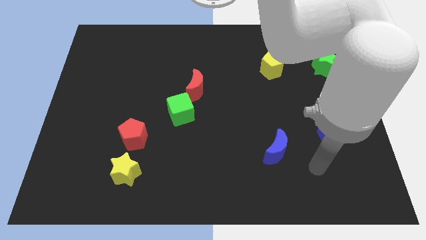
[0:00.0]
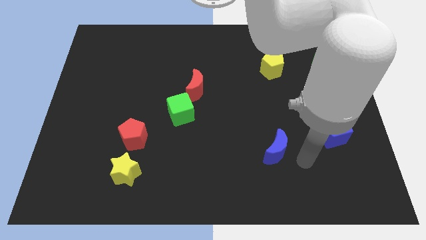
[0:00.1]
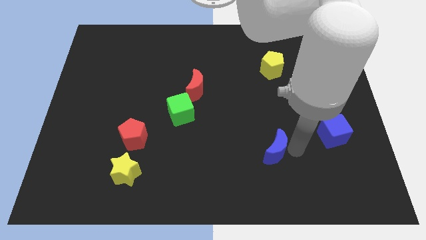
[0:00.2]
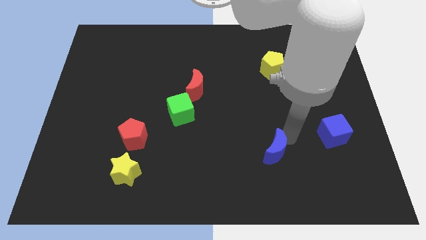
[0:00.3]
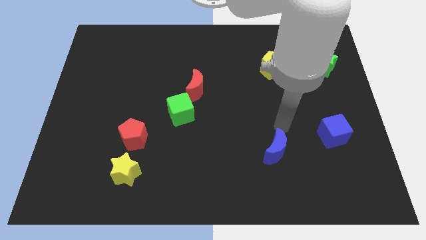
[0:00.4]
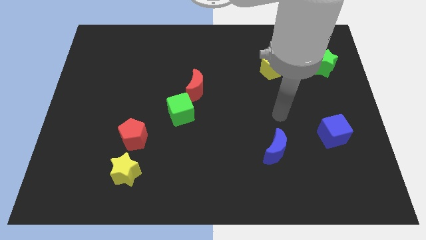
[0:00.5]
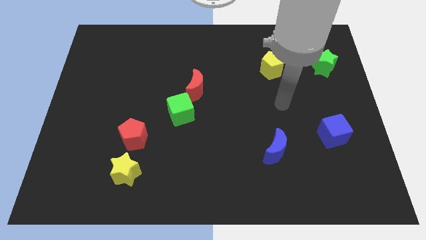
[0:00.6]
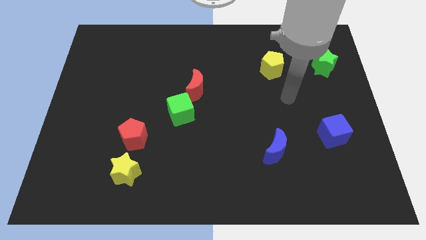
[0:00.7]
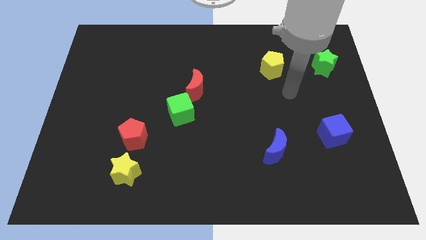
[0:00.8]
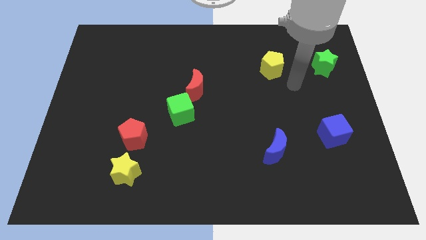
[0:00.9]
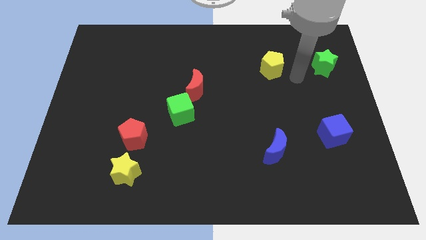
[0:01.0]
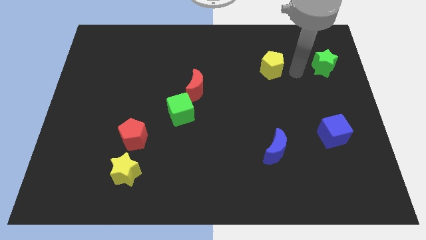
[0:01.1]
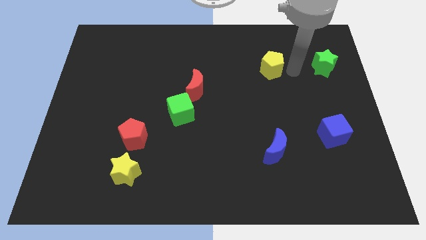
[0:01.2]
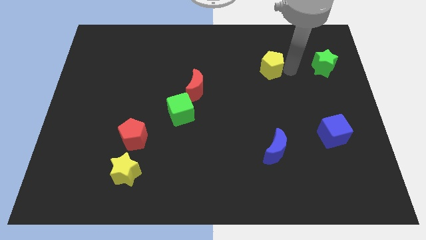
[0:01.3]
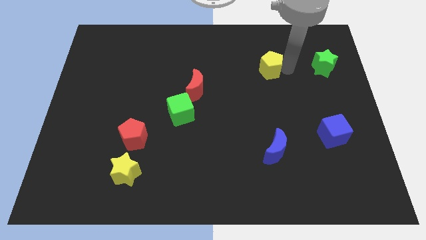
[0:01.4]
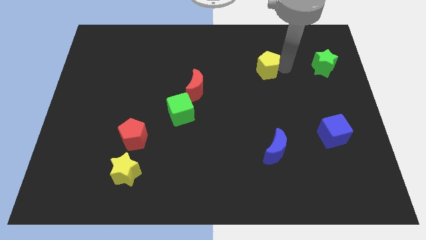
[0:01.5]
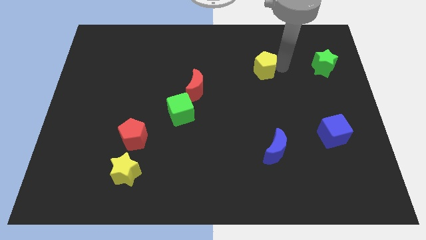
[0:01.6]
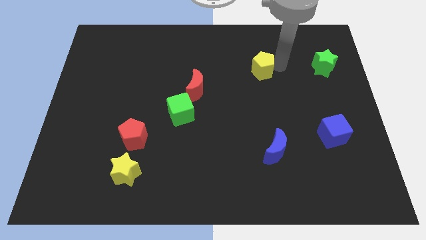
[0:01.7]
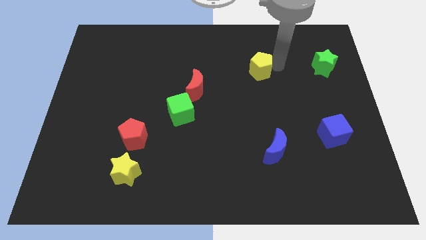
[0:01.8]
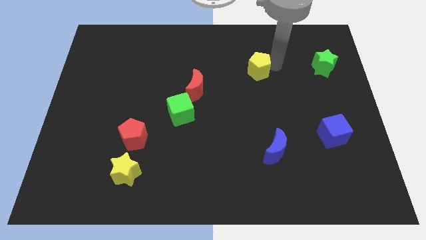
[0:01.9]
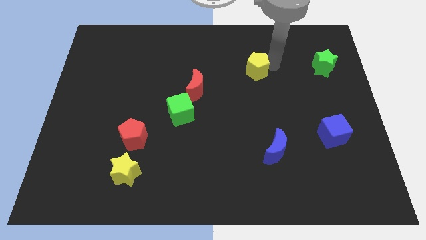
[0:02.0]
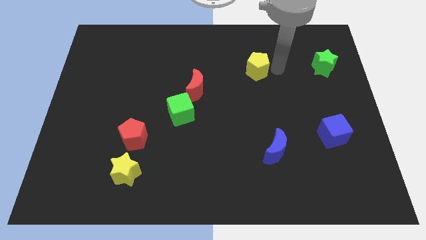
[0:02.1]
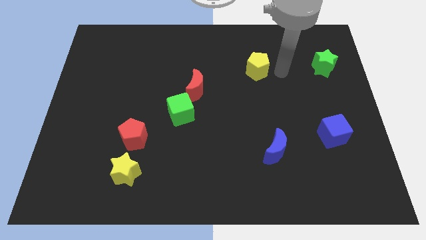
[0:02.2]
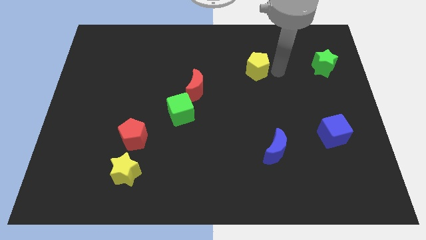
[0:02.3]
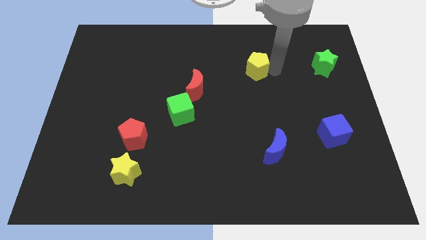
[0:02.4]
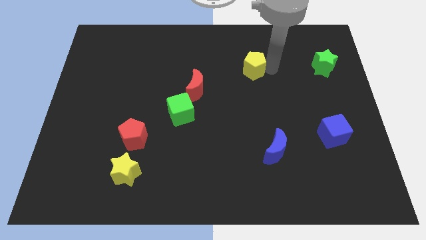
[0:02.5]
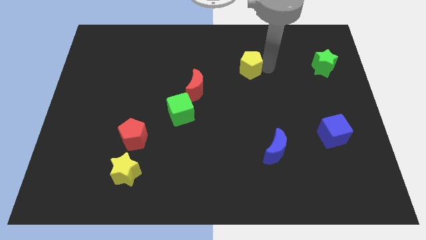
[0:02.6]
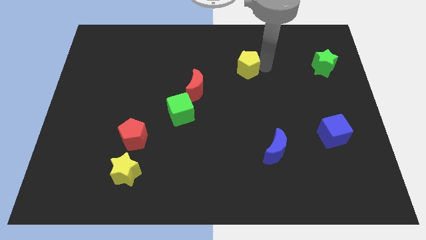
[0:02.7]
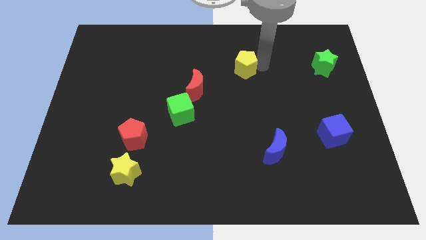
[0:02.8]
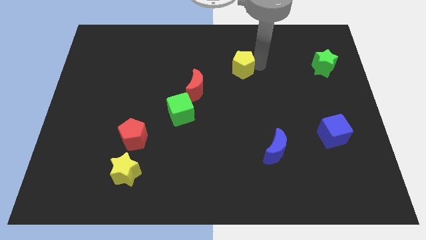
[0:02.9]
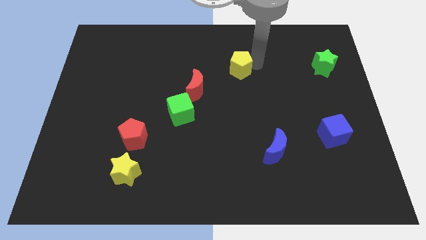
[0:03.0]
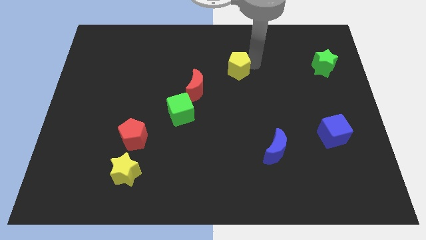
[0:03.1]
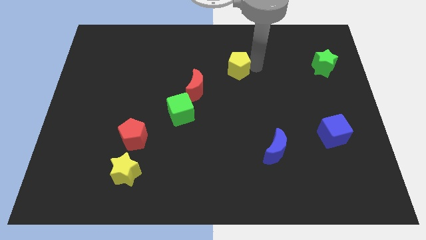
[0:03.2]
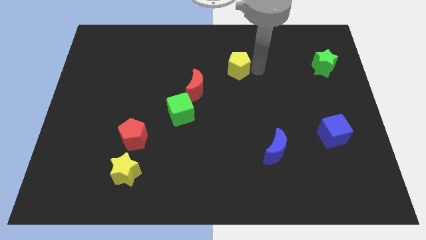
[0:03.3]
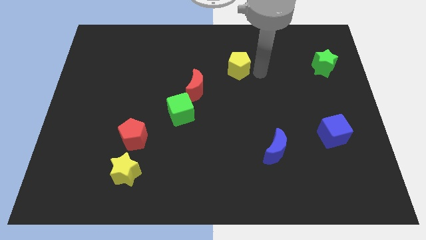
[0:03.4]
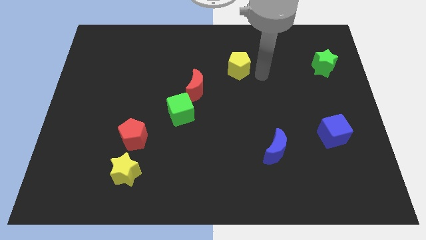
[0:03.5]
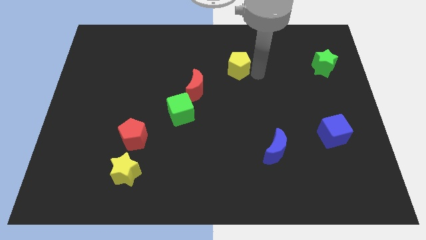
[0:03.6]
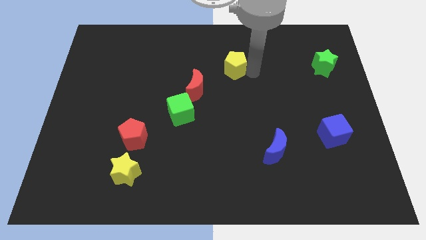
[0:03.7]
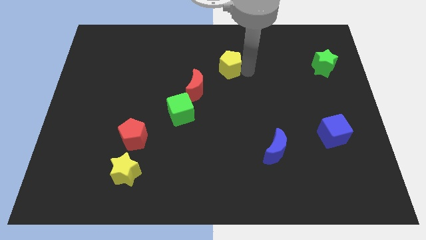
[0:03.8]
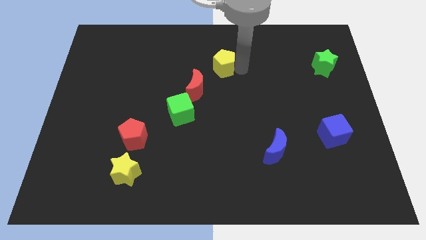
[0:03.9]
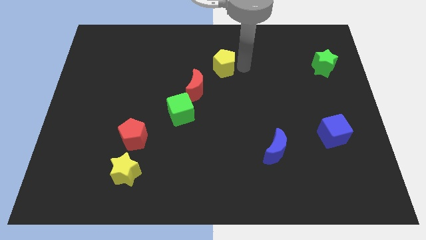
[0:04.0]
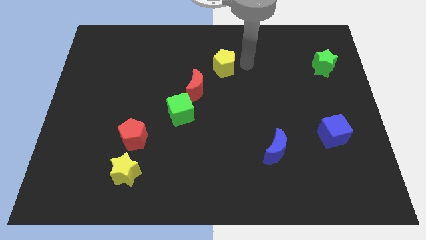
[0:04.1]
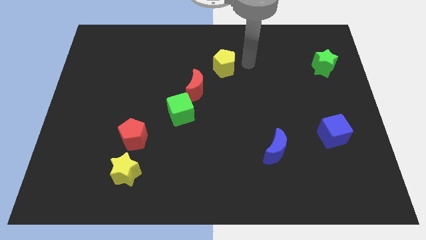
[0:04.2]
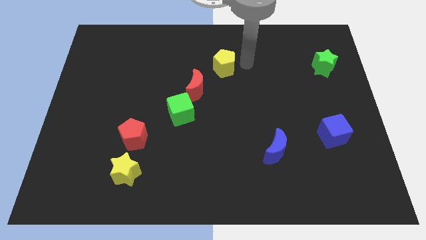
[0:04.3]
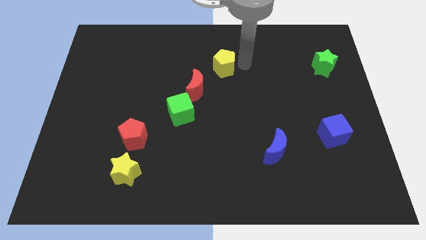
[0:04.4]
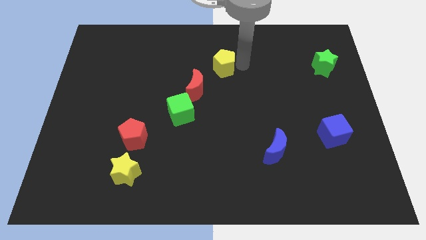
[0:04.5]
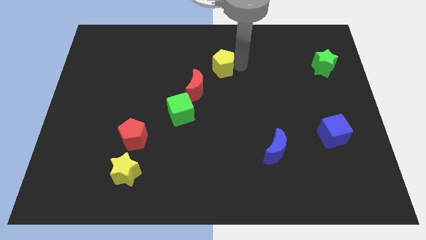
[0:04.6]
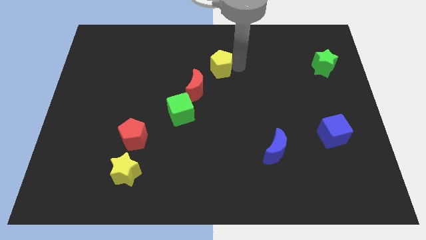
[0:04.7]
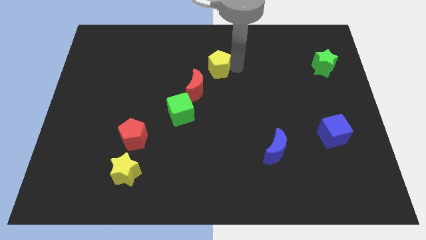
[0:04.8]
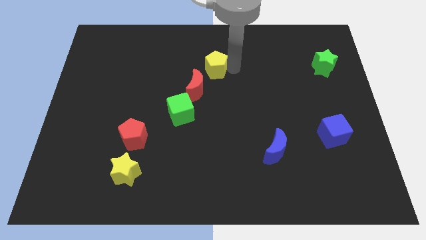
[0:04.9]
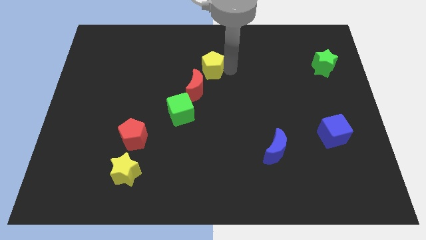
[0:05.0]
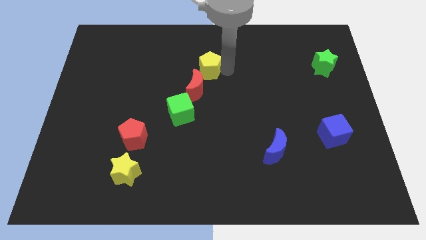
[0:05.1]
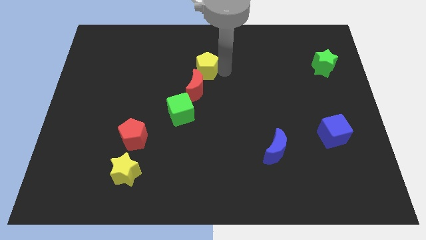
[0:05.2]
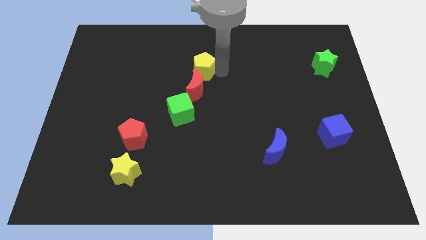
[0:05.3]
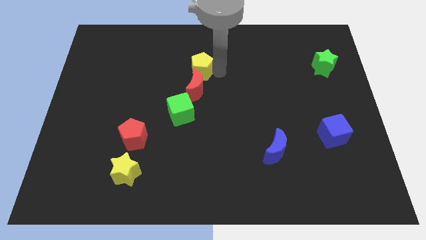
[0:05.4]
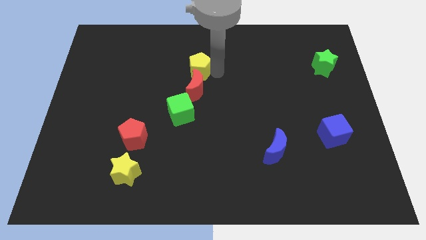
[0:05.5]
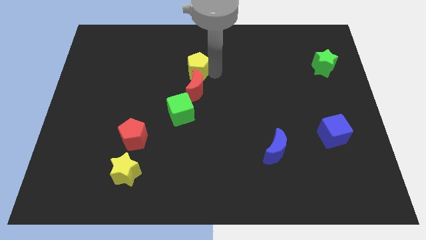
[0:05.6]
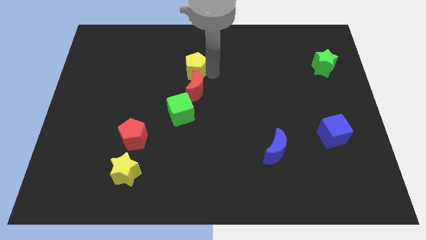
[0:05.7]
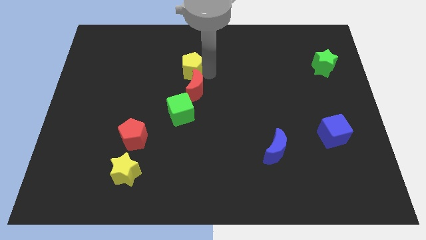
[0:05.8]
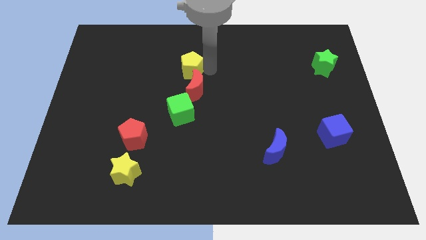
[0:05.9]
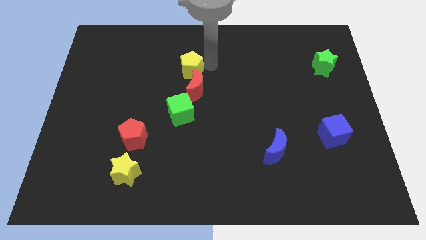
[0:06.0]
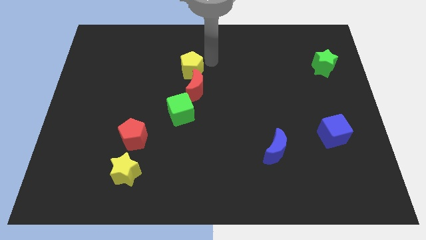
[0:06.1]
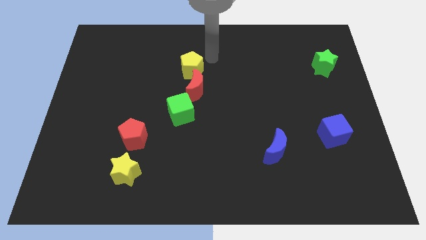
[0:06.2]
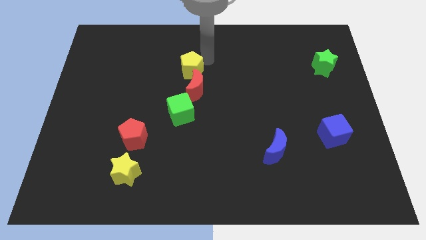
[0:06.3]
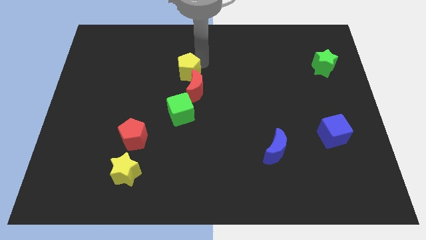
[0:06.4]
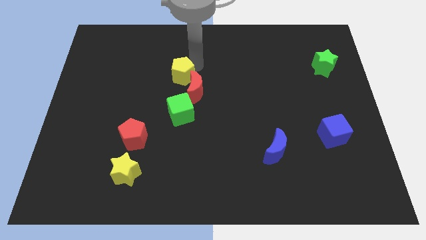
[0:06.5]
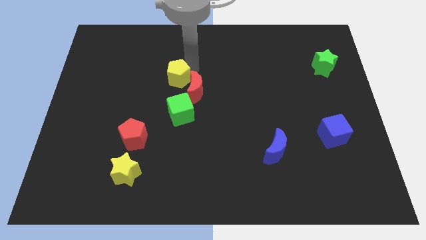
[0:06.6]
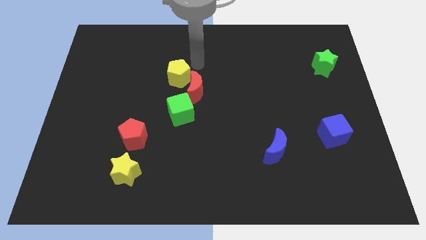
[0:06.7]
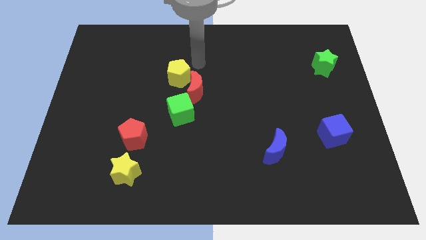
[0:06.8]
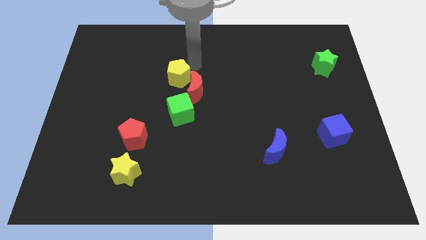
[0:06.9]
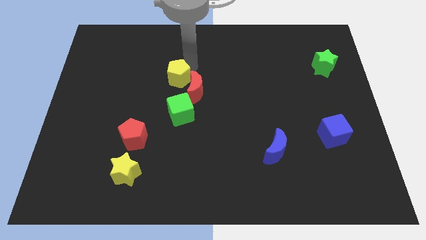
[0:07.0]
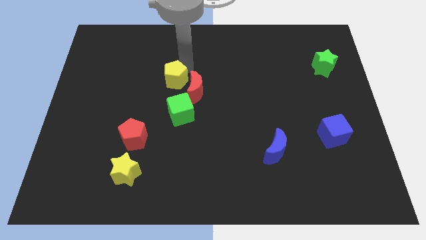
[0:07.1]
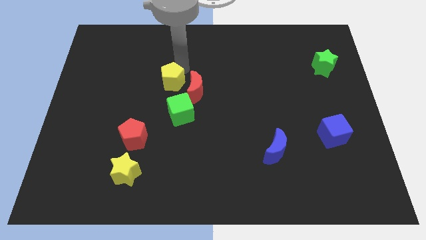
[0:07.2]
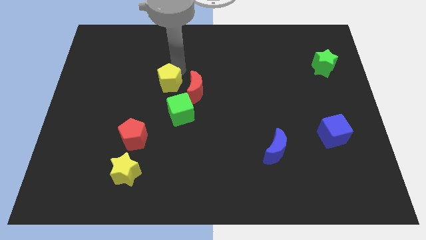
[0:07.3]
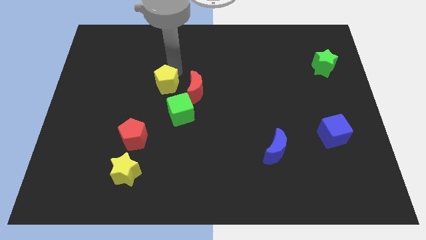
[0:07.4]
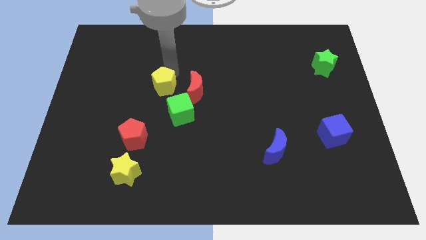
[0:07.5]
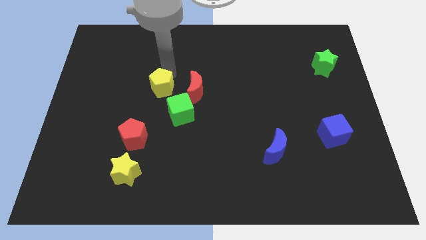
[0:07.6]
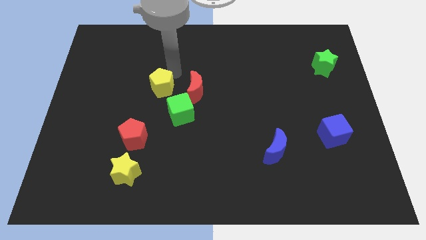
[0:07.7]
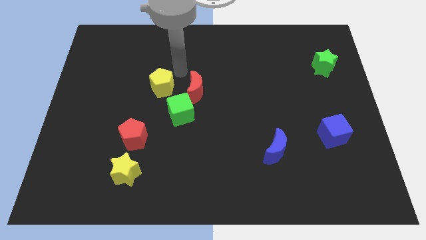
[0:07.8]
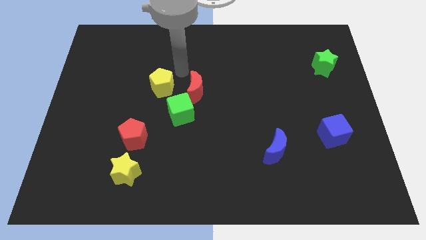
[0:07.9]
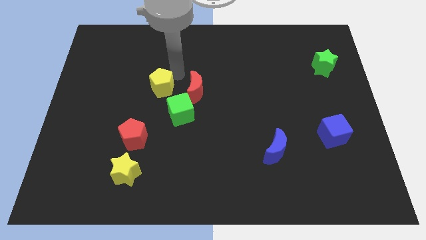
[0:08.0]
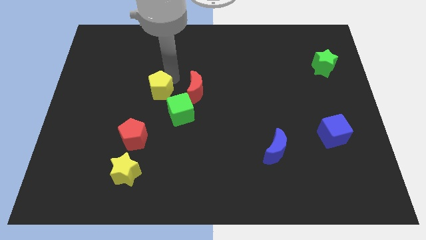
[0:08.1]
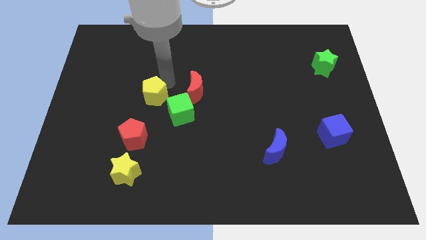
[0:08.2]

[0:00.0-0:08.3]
push the yellow pentagon above the red pentagon
